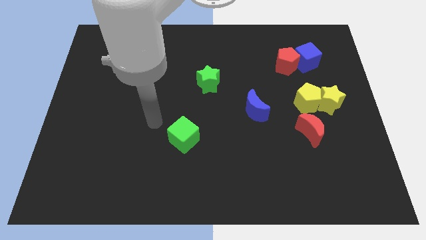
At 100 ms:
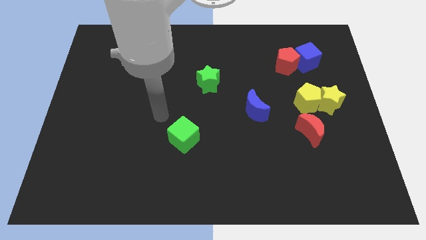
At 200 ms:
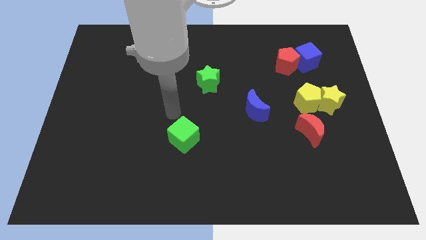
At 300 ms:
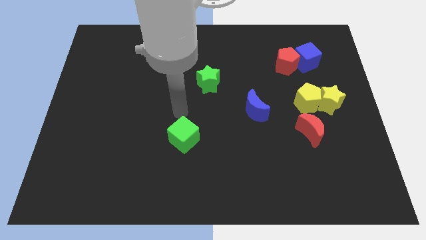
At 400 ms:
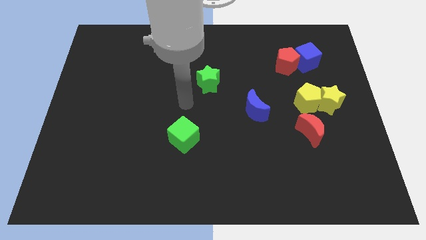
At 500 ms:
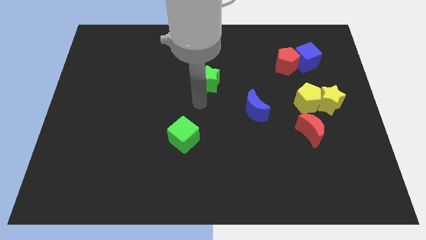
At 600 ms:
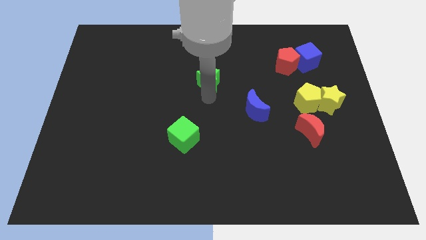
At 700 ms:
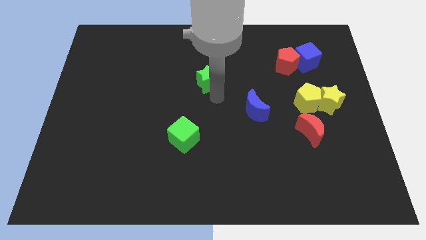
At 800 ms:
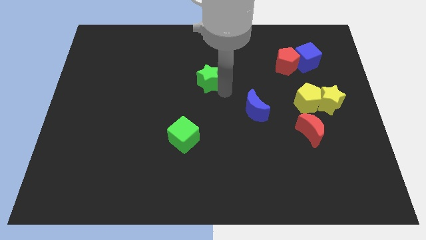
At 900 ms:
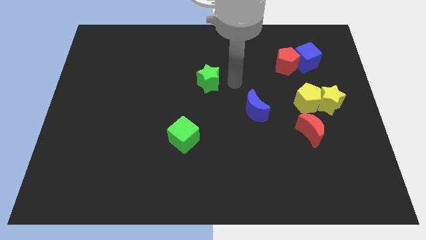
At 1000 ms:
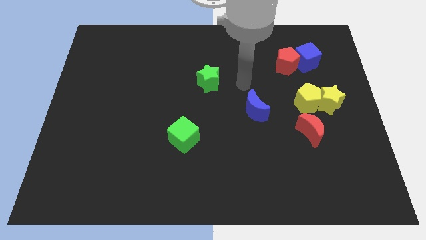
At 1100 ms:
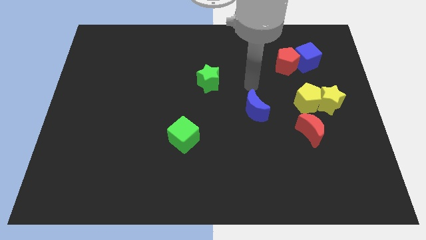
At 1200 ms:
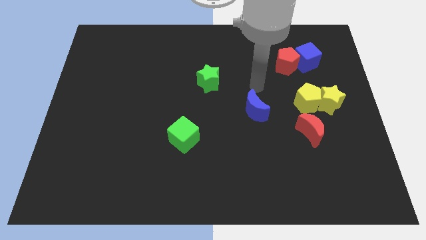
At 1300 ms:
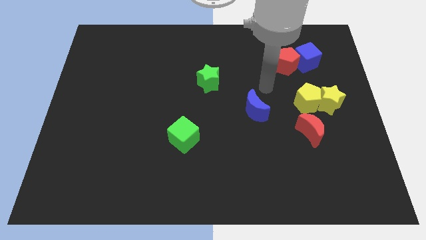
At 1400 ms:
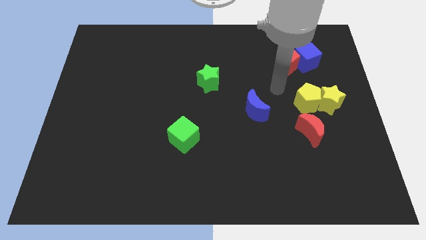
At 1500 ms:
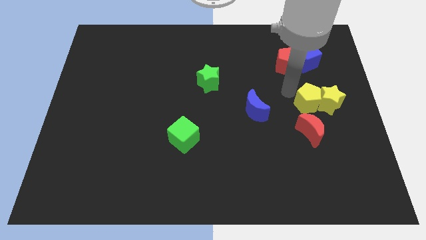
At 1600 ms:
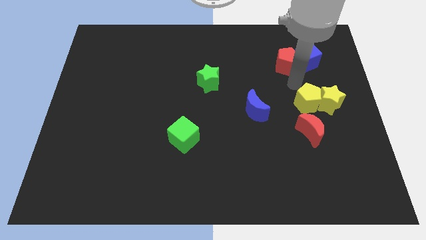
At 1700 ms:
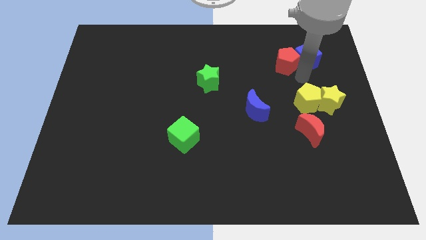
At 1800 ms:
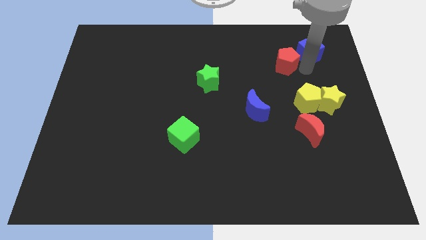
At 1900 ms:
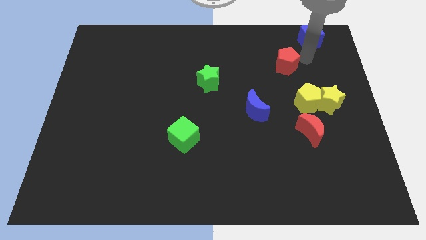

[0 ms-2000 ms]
pull the red pentagon apart from the blue cube

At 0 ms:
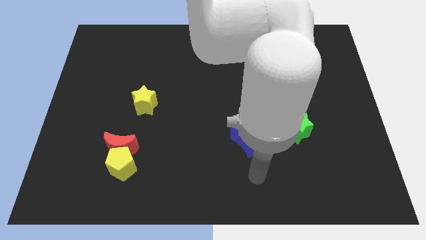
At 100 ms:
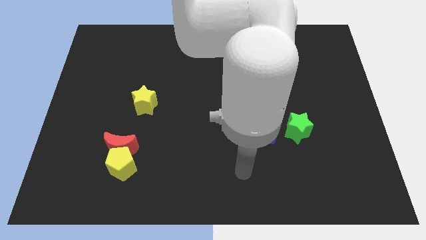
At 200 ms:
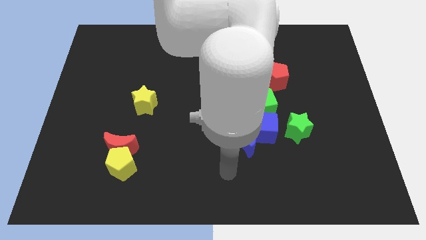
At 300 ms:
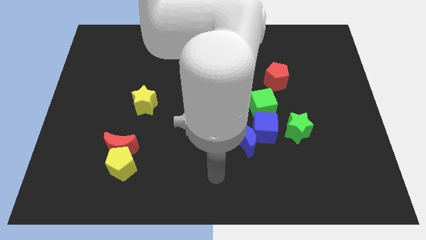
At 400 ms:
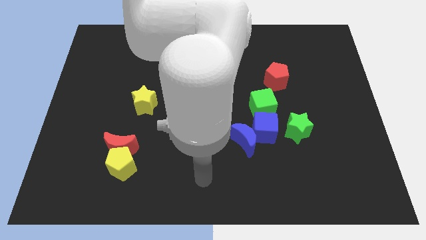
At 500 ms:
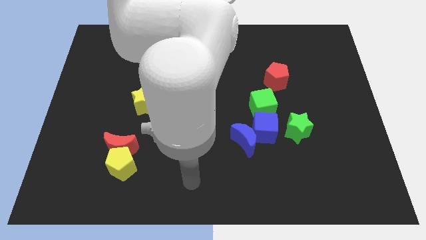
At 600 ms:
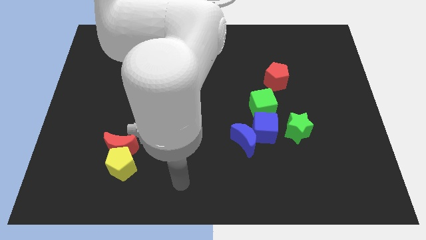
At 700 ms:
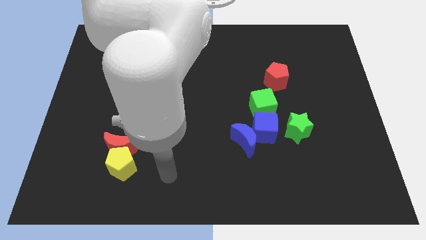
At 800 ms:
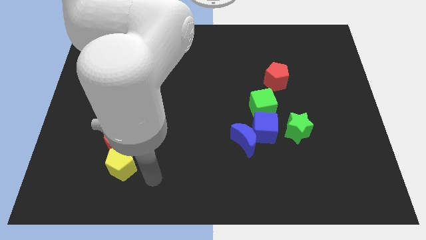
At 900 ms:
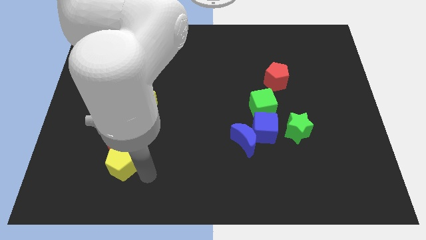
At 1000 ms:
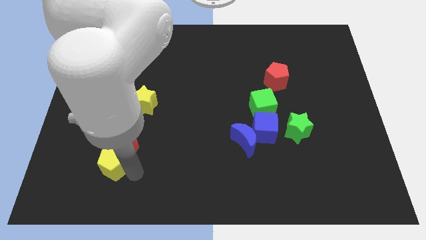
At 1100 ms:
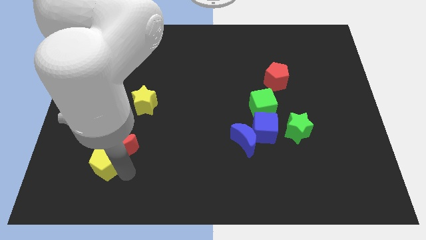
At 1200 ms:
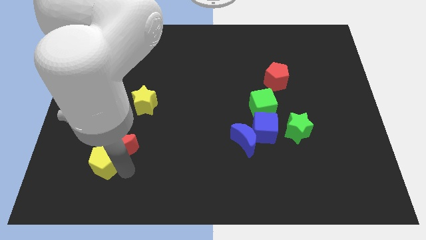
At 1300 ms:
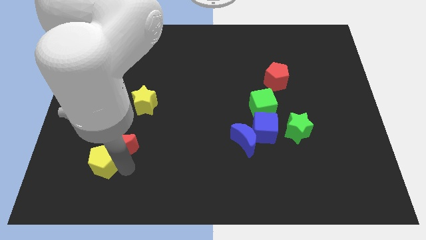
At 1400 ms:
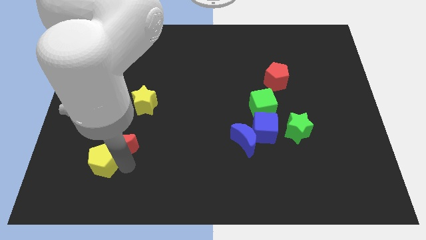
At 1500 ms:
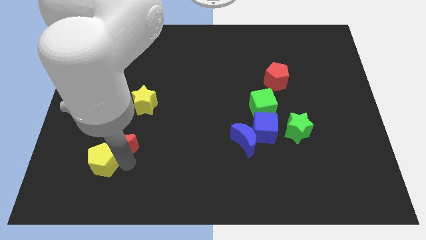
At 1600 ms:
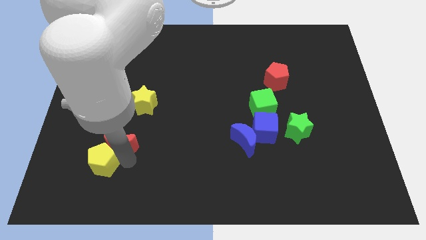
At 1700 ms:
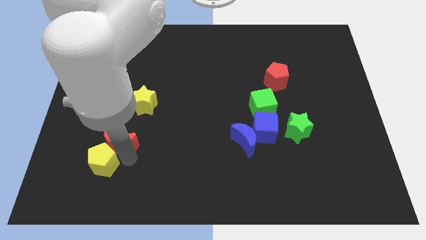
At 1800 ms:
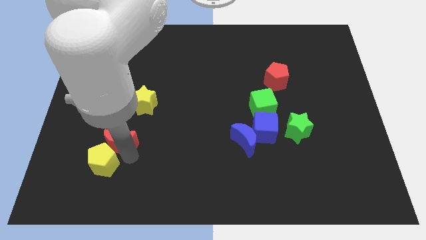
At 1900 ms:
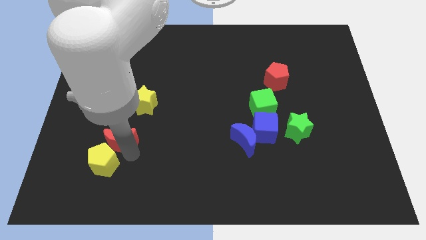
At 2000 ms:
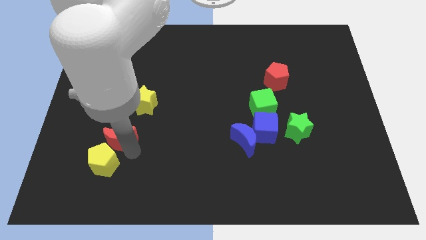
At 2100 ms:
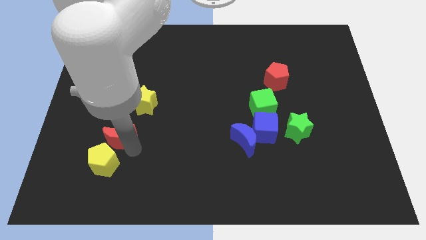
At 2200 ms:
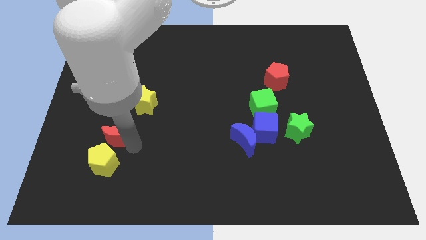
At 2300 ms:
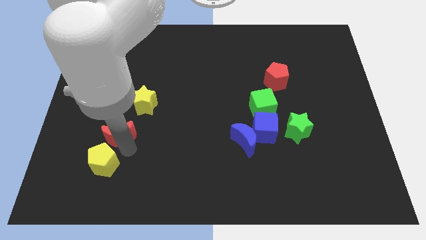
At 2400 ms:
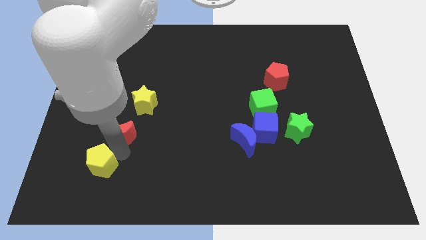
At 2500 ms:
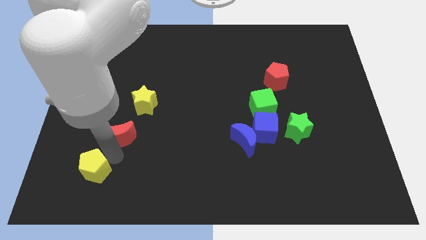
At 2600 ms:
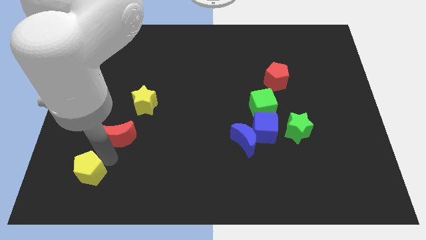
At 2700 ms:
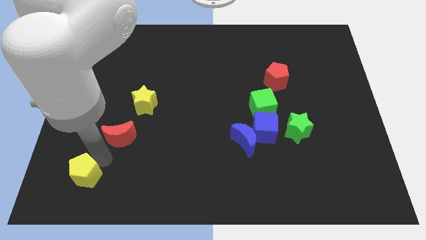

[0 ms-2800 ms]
pull the red moon apart from the yellow pentagon

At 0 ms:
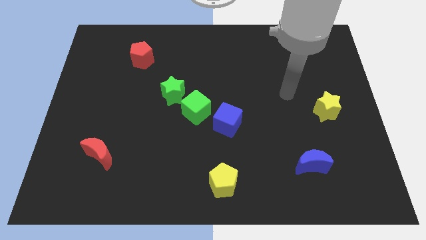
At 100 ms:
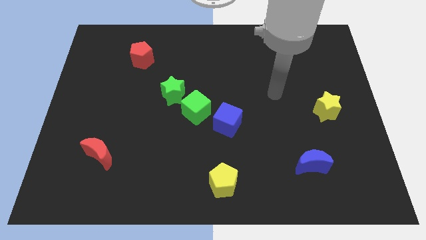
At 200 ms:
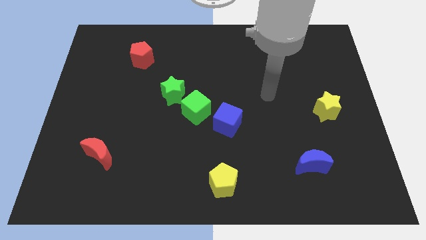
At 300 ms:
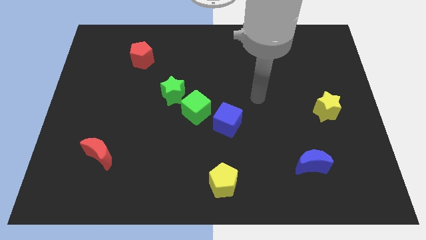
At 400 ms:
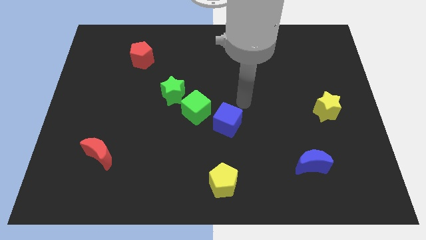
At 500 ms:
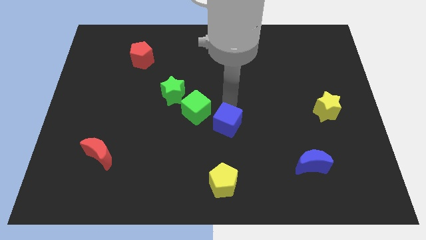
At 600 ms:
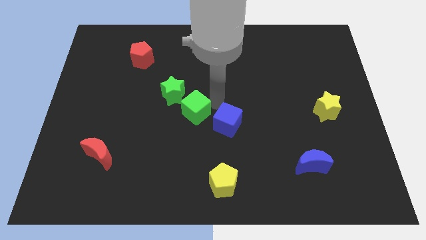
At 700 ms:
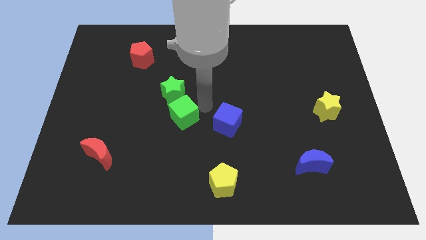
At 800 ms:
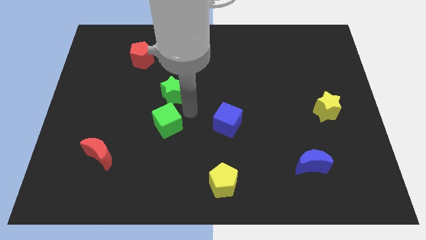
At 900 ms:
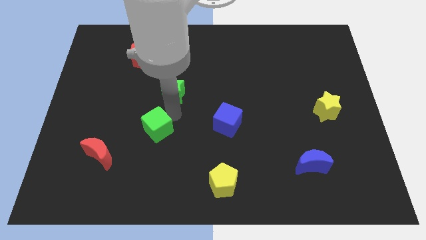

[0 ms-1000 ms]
separate the green star from the green cube

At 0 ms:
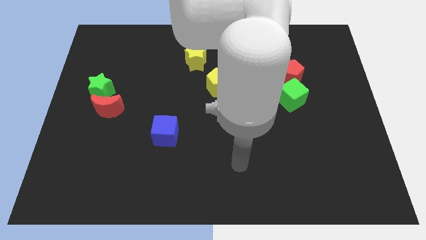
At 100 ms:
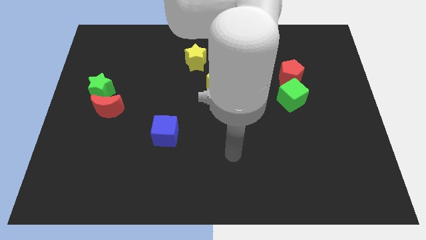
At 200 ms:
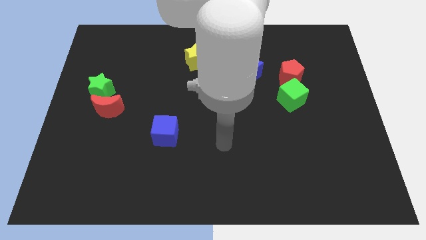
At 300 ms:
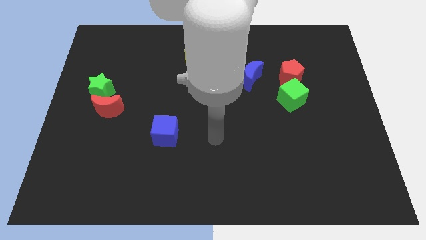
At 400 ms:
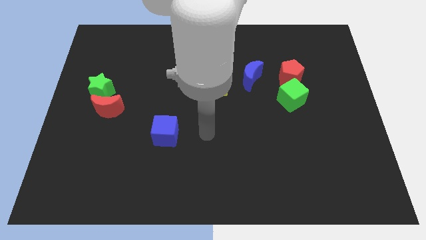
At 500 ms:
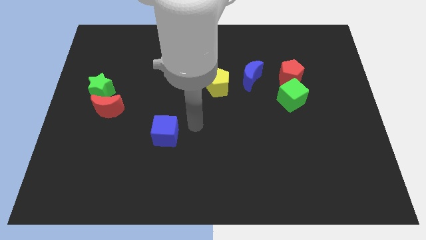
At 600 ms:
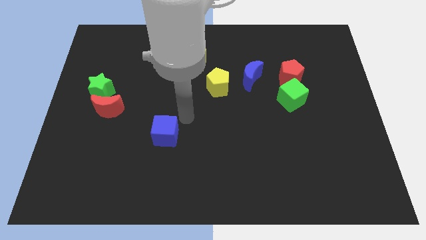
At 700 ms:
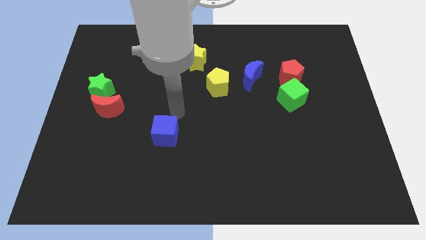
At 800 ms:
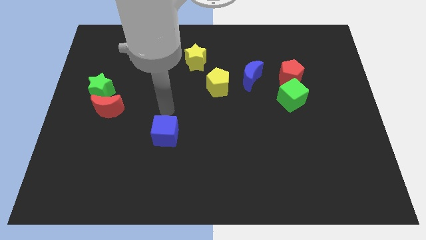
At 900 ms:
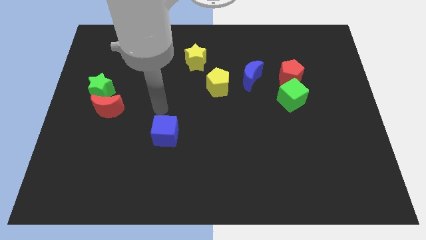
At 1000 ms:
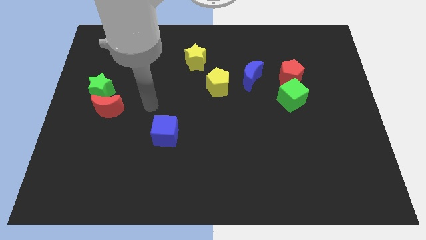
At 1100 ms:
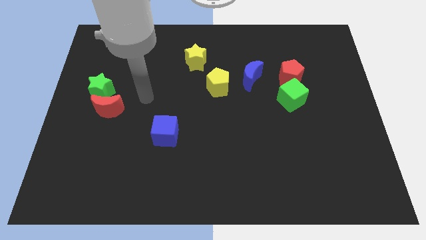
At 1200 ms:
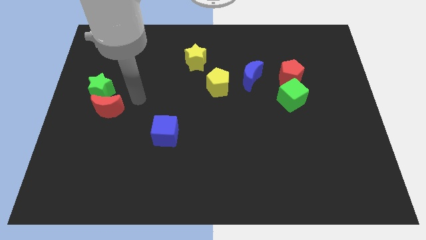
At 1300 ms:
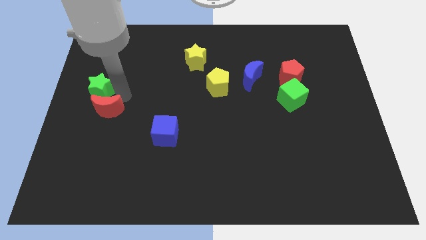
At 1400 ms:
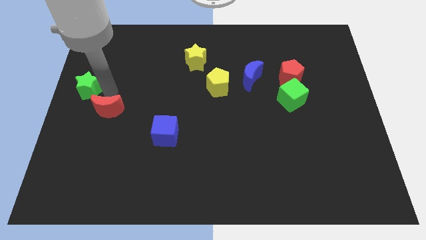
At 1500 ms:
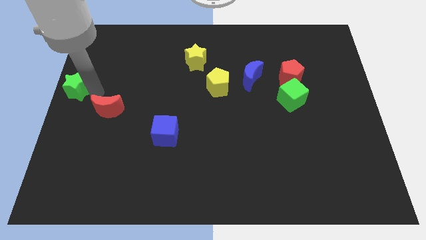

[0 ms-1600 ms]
move the red moon away from the green star

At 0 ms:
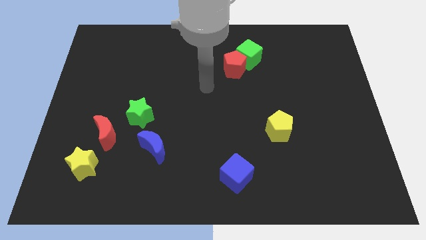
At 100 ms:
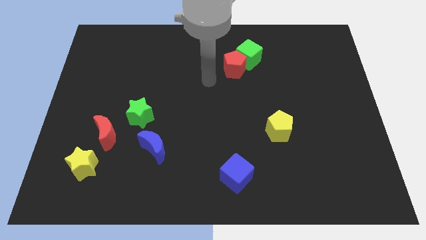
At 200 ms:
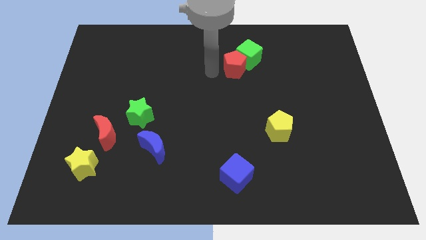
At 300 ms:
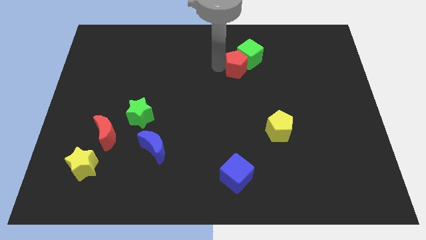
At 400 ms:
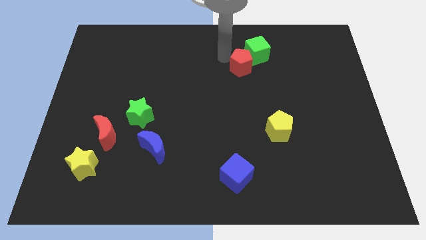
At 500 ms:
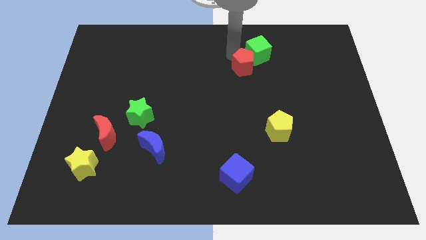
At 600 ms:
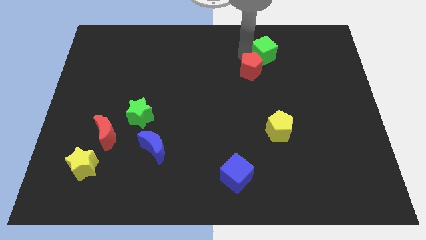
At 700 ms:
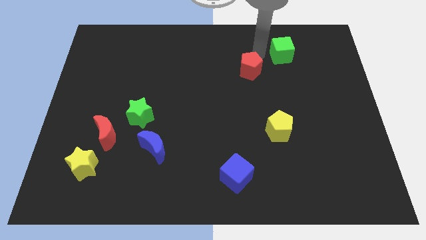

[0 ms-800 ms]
pull the red pentagon apart from the green cube

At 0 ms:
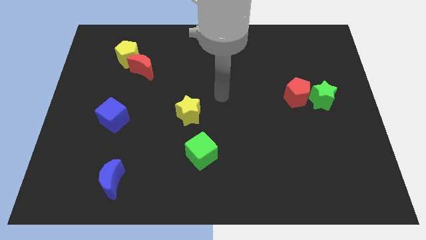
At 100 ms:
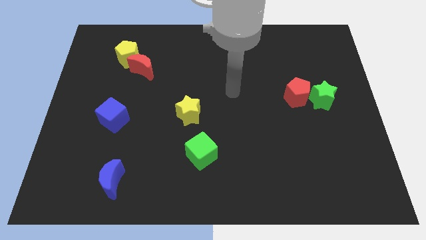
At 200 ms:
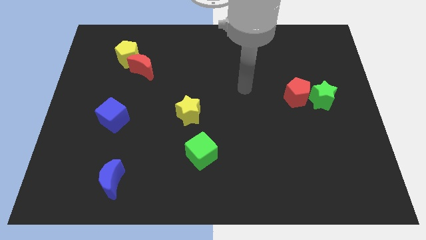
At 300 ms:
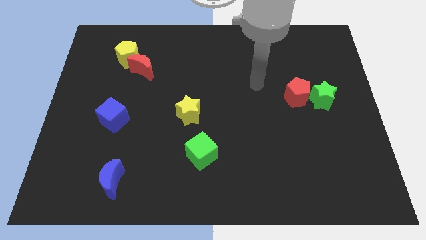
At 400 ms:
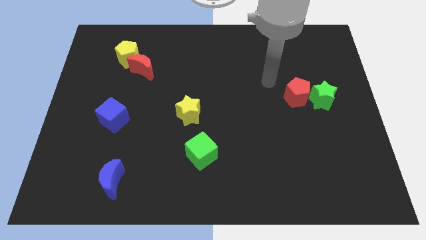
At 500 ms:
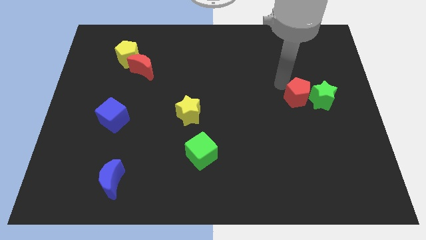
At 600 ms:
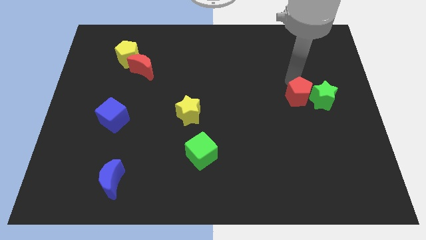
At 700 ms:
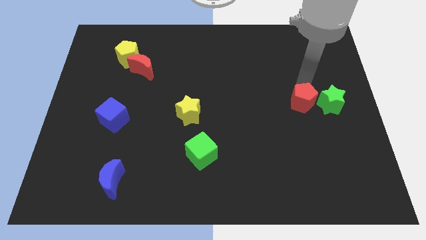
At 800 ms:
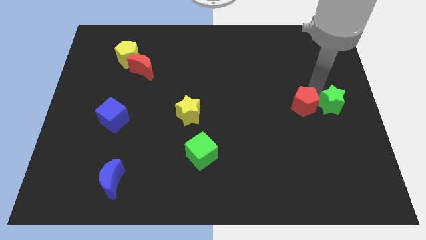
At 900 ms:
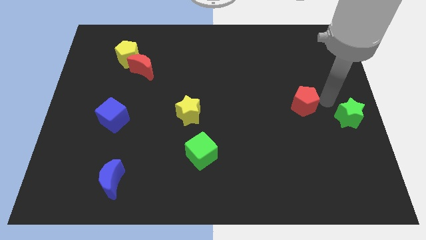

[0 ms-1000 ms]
separate the red pentagon from the green star

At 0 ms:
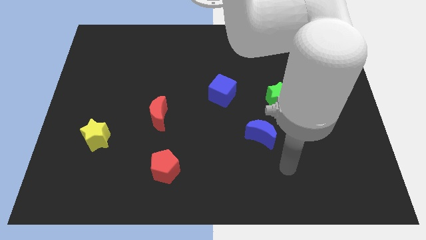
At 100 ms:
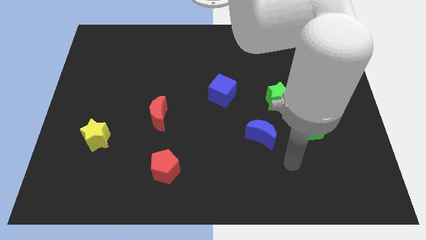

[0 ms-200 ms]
pull the green cube apart from the green star
